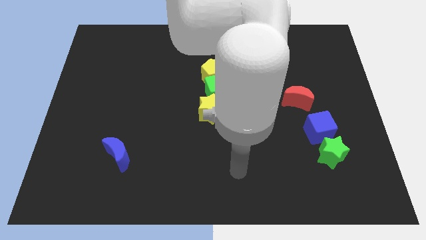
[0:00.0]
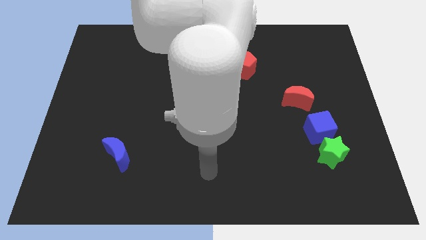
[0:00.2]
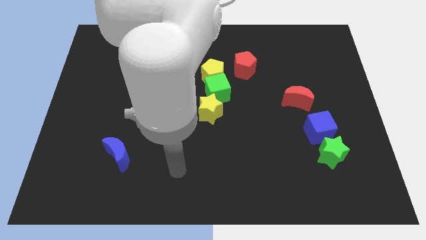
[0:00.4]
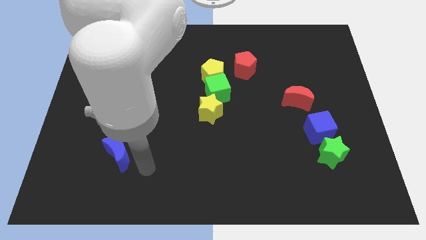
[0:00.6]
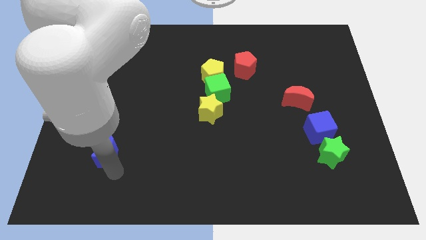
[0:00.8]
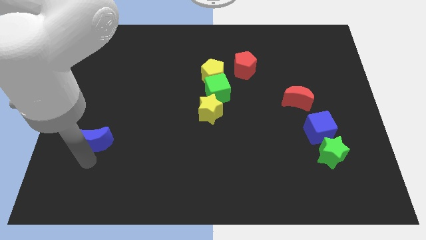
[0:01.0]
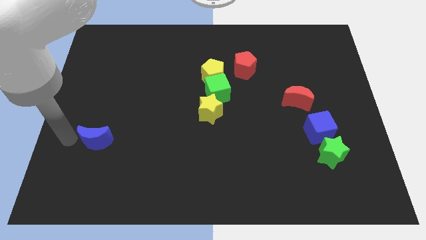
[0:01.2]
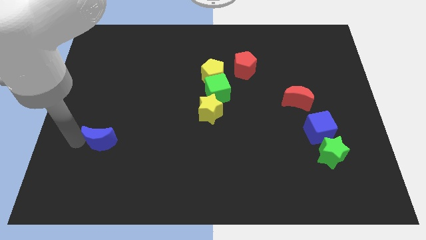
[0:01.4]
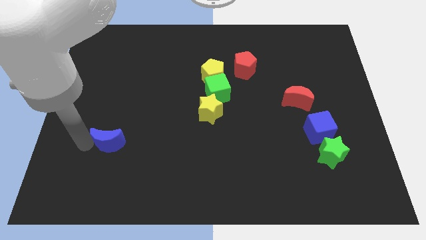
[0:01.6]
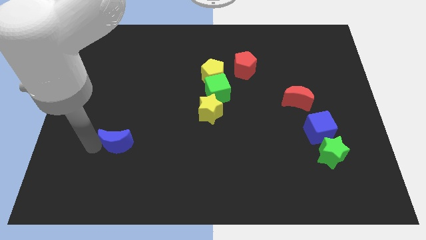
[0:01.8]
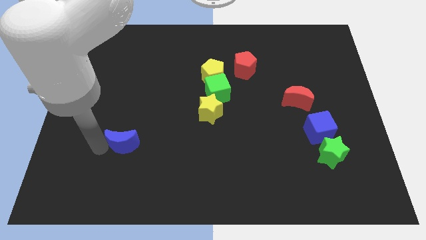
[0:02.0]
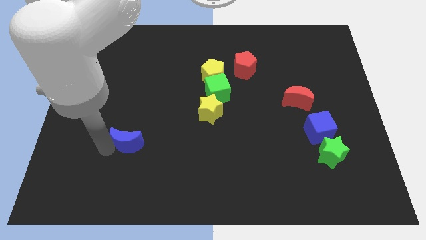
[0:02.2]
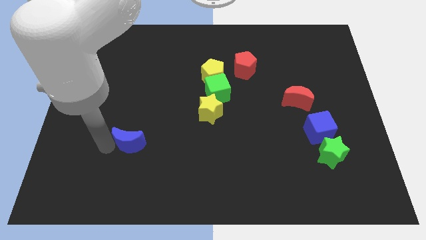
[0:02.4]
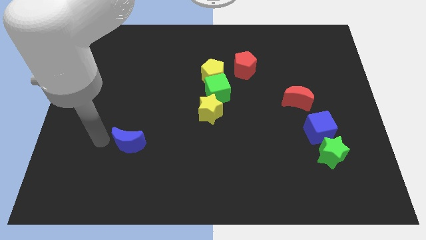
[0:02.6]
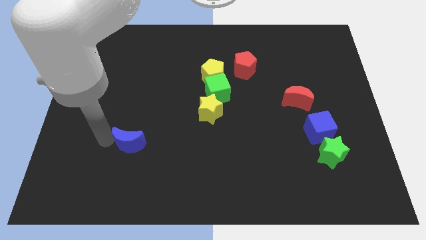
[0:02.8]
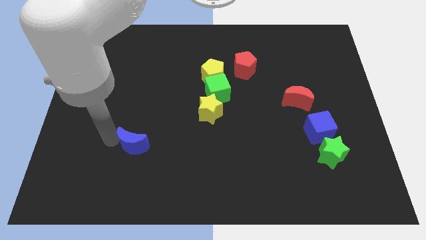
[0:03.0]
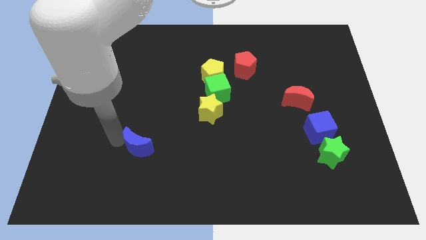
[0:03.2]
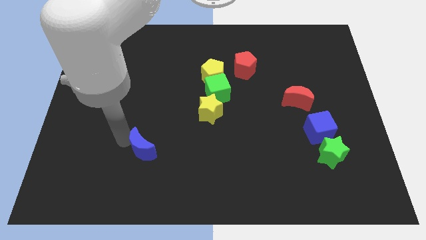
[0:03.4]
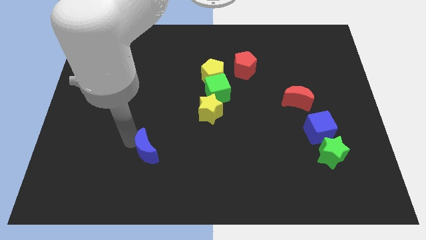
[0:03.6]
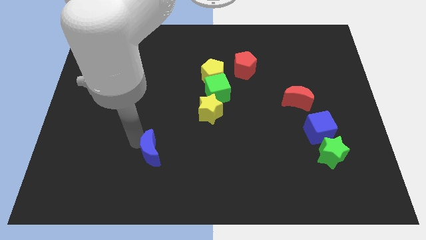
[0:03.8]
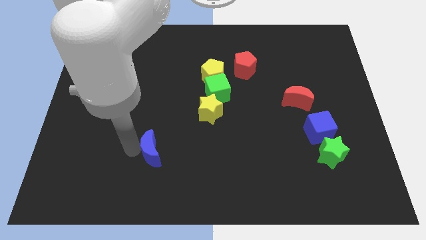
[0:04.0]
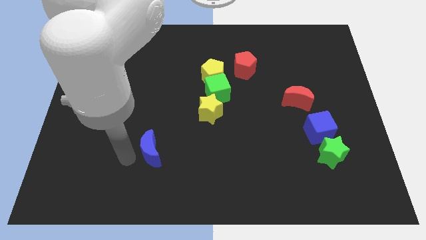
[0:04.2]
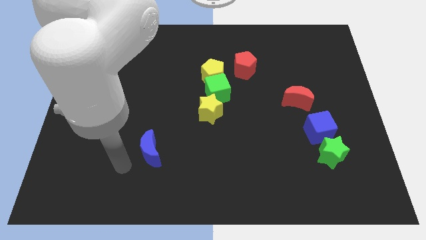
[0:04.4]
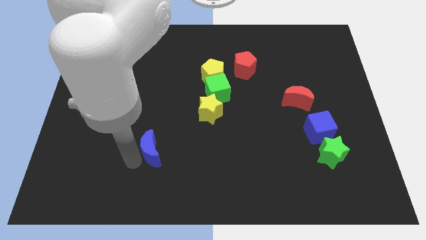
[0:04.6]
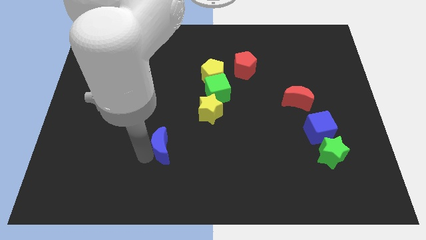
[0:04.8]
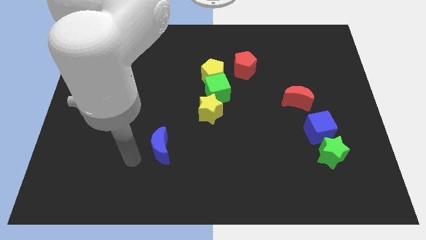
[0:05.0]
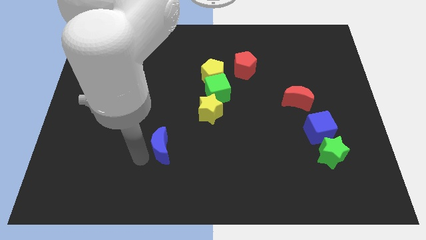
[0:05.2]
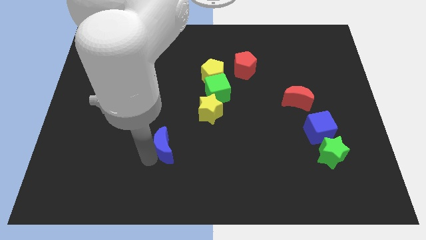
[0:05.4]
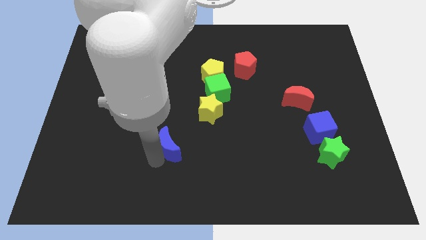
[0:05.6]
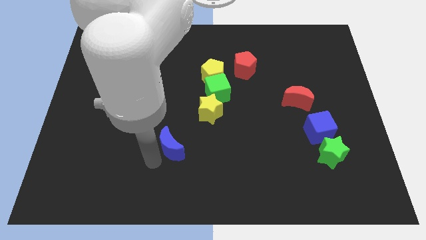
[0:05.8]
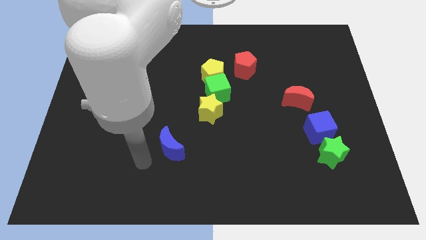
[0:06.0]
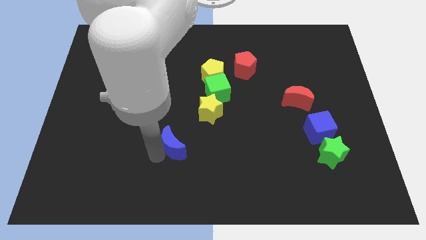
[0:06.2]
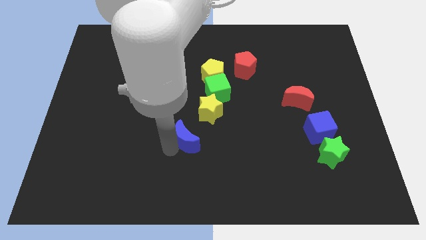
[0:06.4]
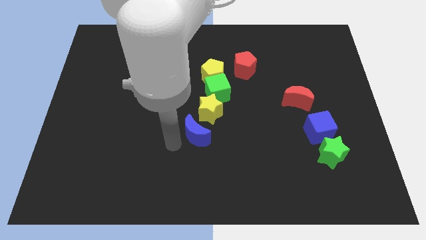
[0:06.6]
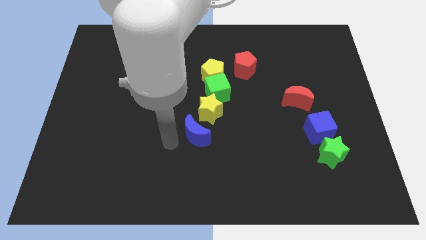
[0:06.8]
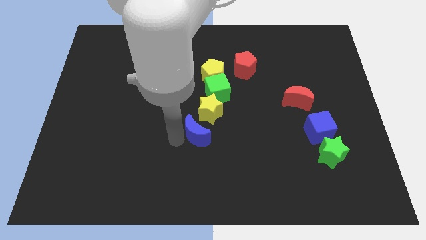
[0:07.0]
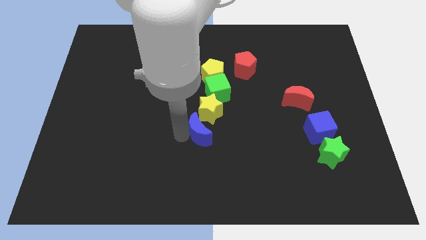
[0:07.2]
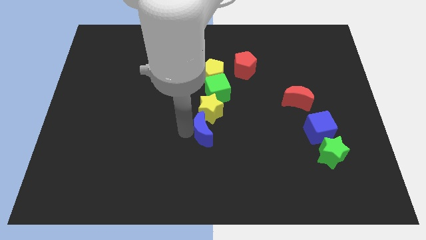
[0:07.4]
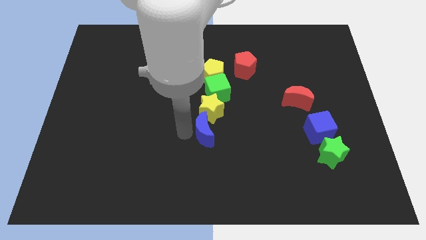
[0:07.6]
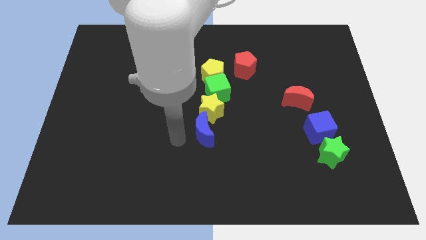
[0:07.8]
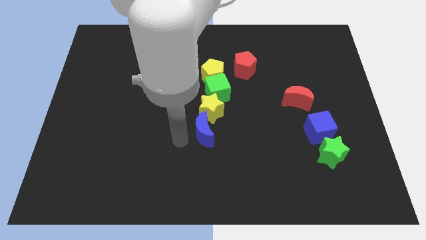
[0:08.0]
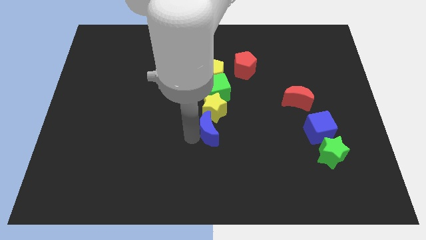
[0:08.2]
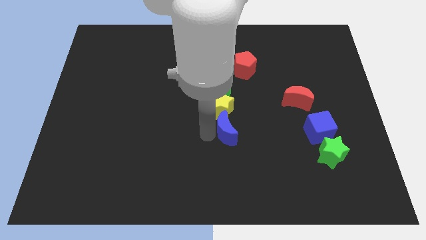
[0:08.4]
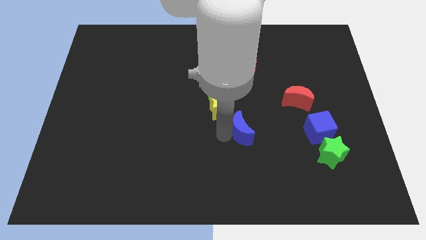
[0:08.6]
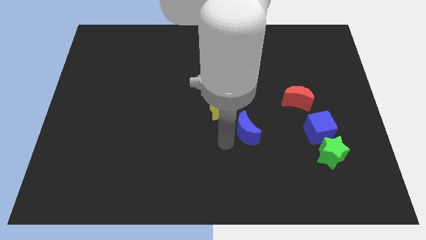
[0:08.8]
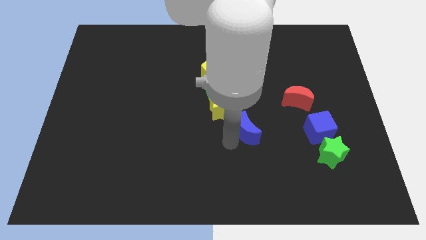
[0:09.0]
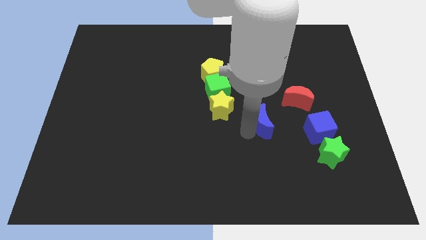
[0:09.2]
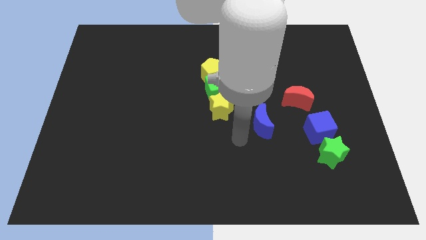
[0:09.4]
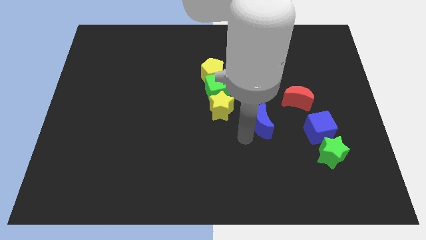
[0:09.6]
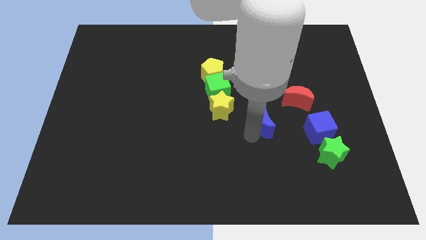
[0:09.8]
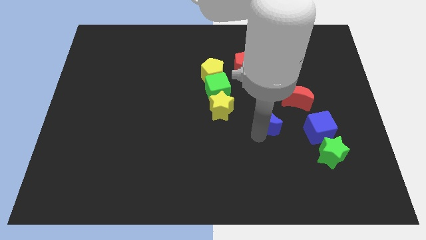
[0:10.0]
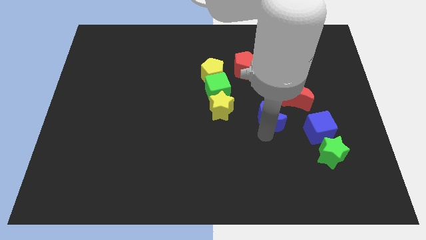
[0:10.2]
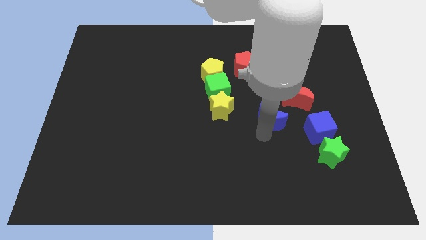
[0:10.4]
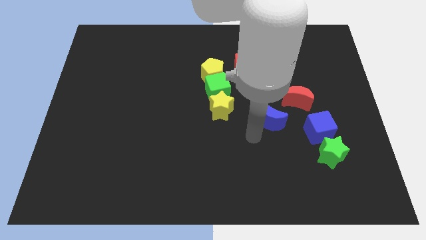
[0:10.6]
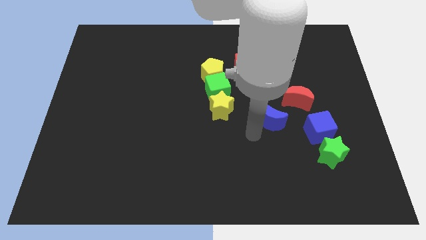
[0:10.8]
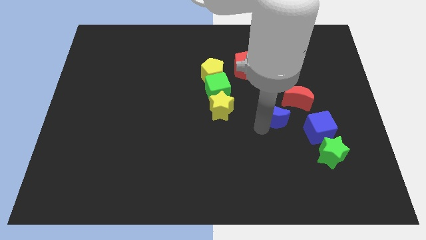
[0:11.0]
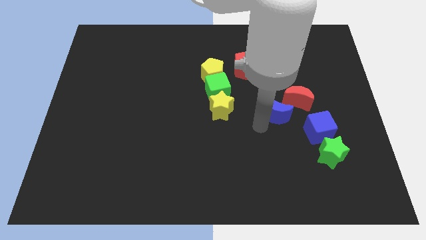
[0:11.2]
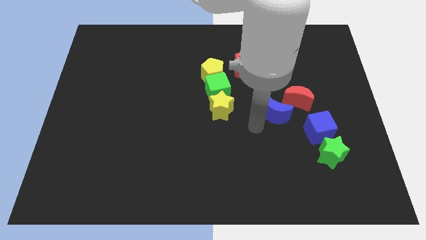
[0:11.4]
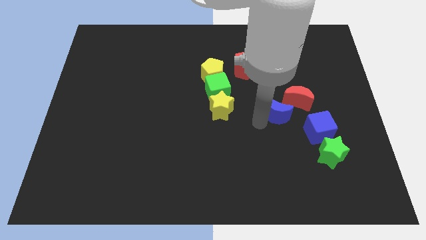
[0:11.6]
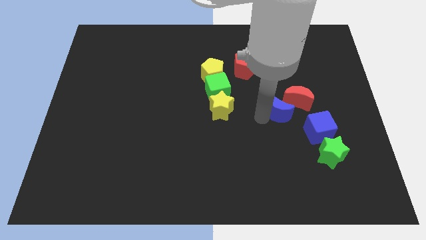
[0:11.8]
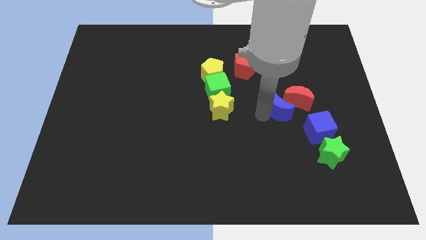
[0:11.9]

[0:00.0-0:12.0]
move the blue moon next to the red moon
